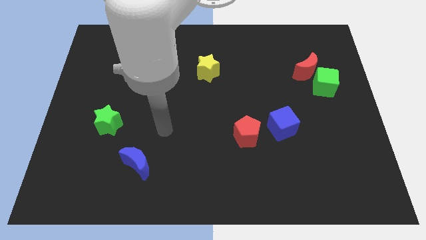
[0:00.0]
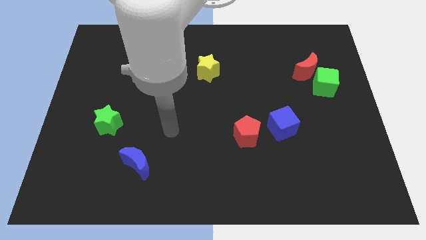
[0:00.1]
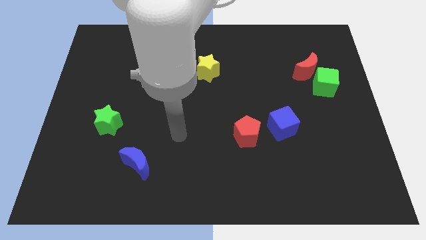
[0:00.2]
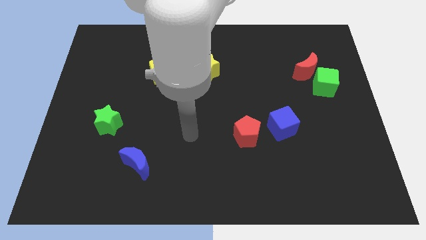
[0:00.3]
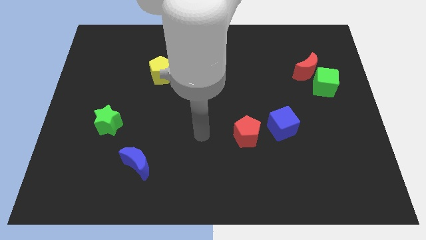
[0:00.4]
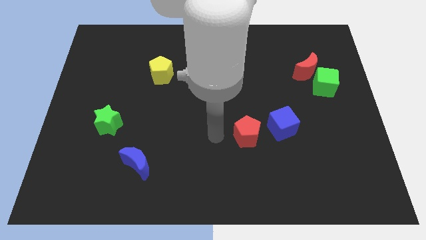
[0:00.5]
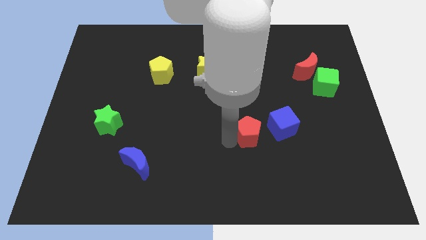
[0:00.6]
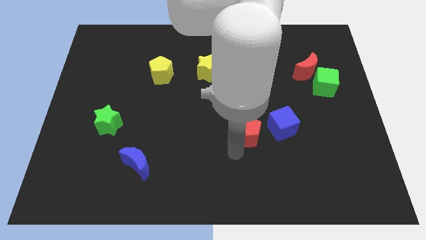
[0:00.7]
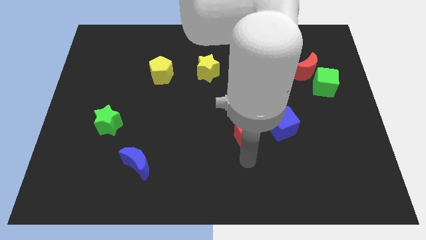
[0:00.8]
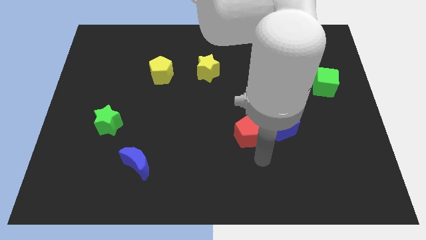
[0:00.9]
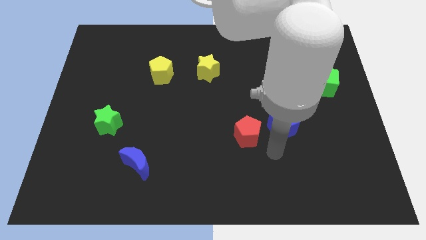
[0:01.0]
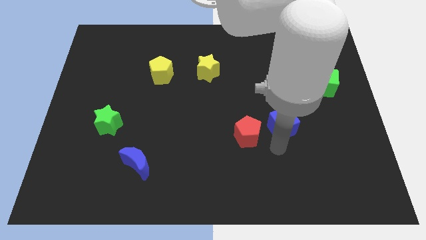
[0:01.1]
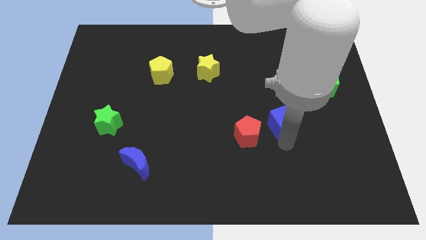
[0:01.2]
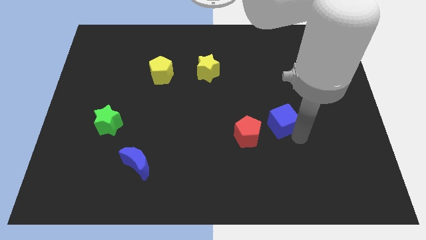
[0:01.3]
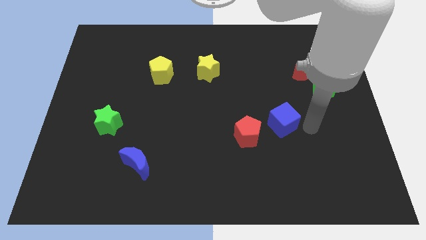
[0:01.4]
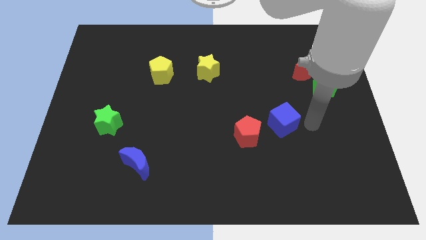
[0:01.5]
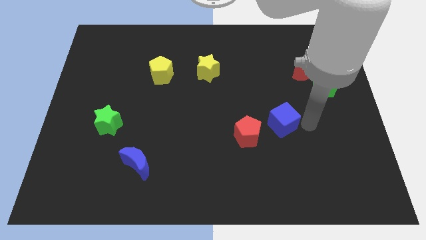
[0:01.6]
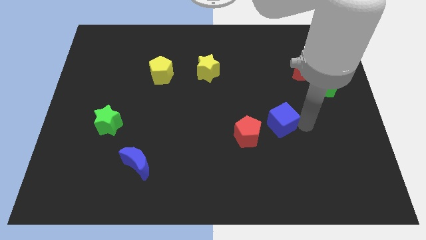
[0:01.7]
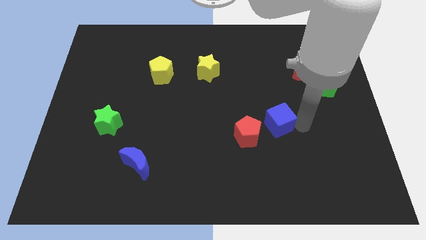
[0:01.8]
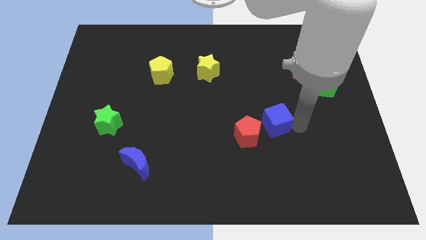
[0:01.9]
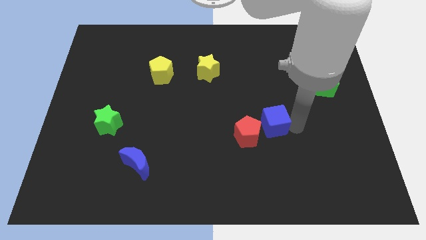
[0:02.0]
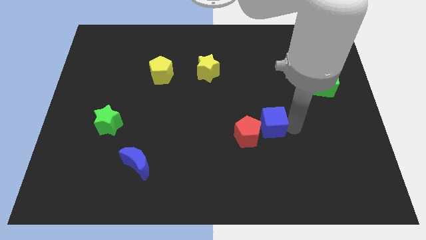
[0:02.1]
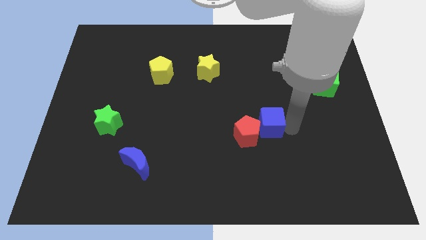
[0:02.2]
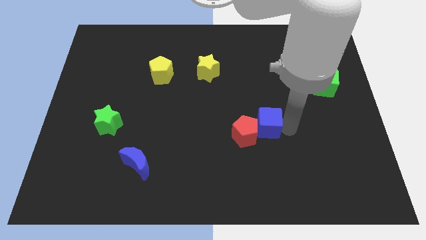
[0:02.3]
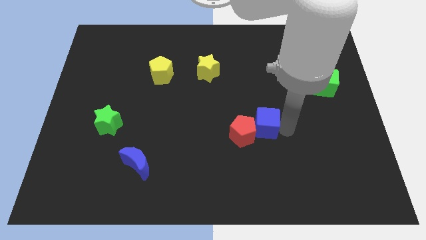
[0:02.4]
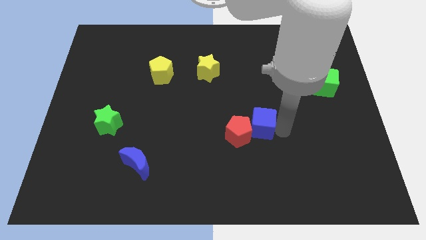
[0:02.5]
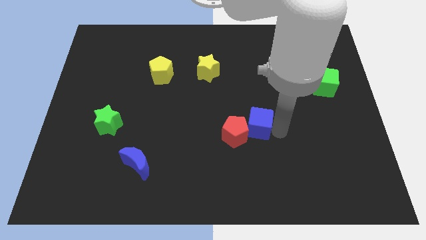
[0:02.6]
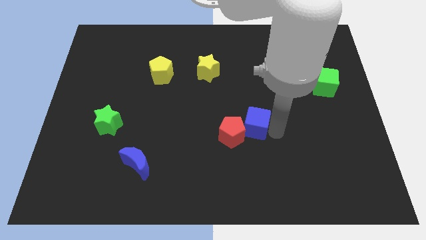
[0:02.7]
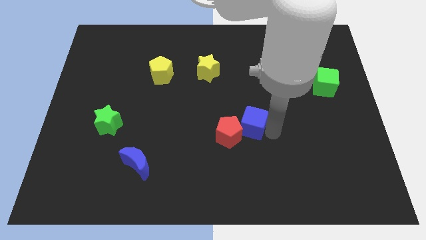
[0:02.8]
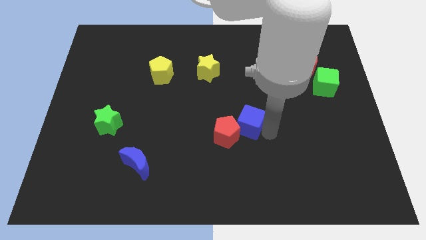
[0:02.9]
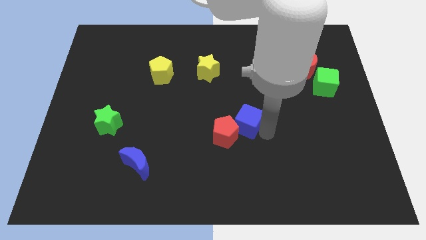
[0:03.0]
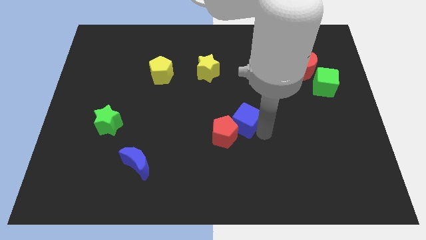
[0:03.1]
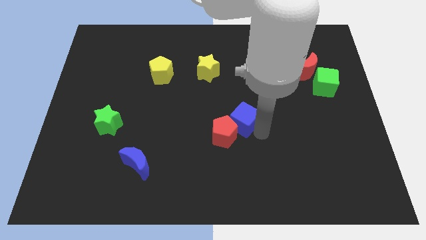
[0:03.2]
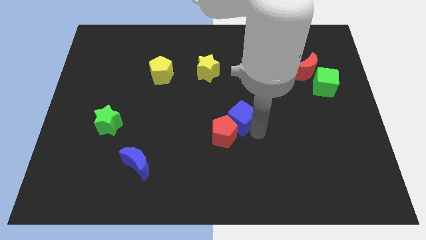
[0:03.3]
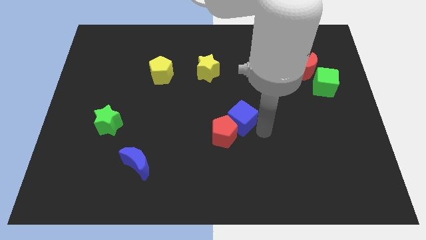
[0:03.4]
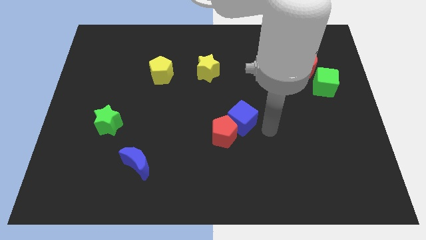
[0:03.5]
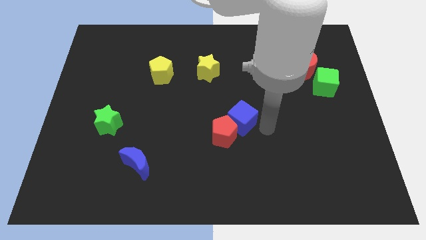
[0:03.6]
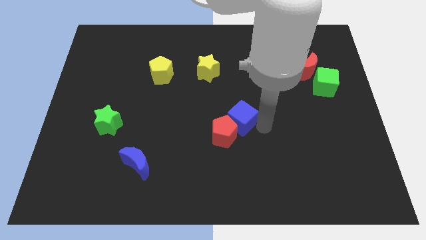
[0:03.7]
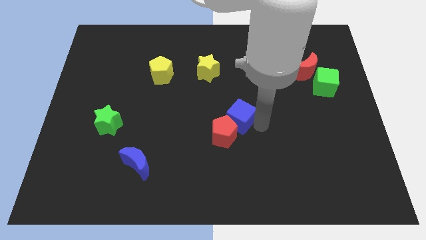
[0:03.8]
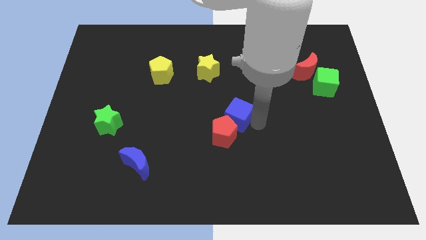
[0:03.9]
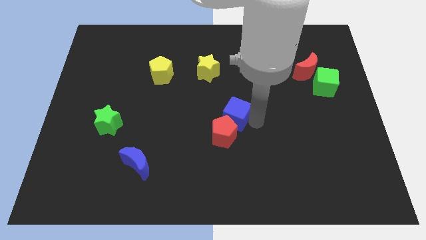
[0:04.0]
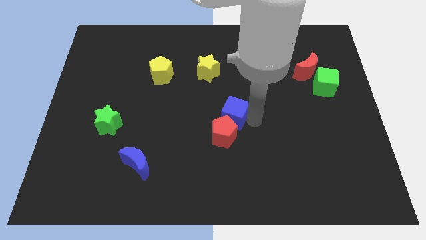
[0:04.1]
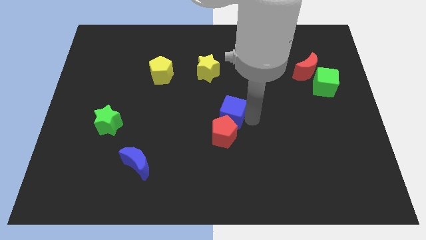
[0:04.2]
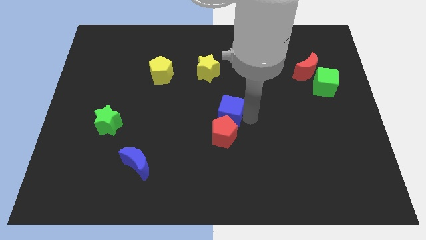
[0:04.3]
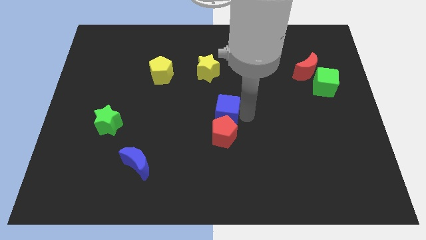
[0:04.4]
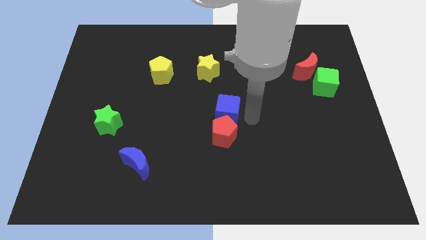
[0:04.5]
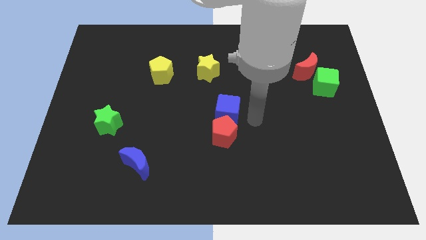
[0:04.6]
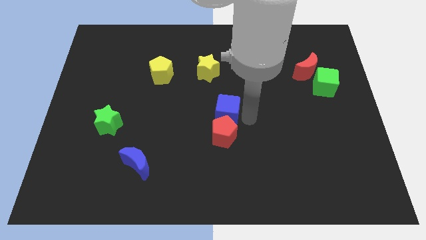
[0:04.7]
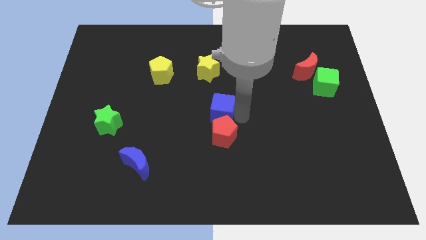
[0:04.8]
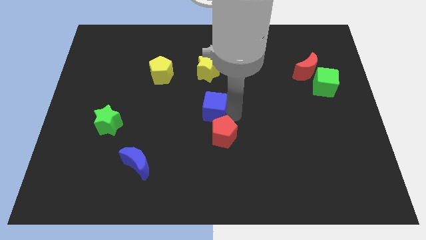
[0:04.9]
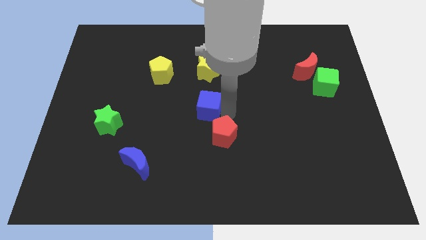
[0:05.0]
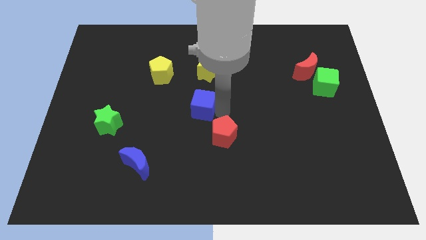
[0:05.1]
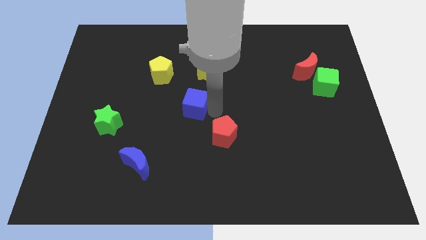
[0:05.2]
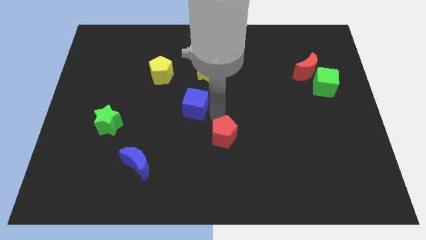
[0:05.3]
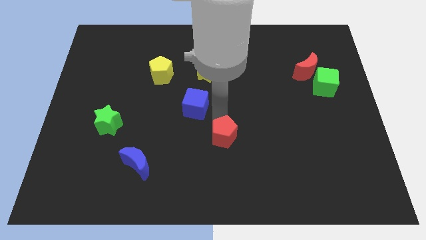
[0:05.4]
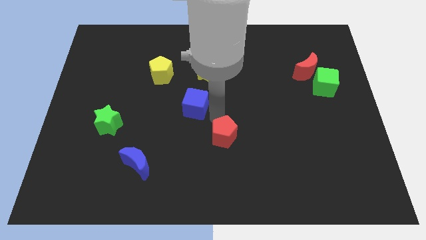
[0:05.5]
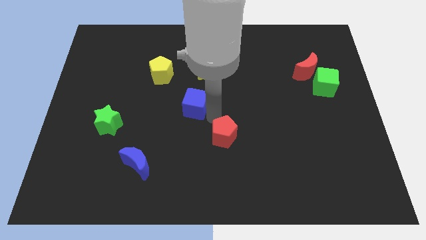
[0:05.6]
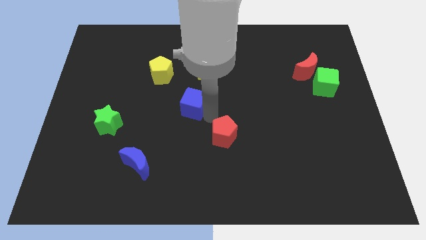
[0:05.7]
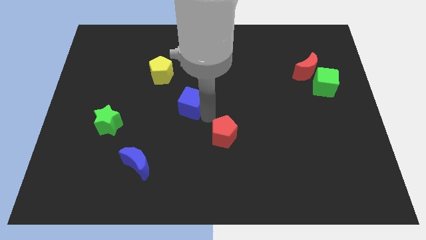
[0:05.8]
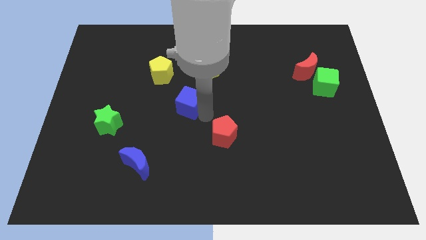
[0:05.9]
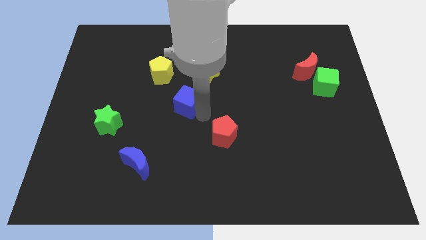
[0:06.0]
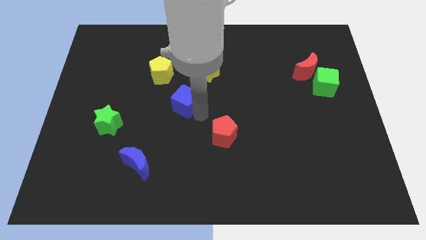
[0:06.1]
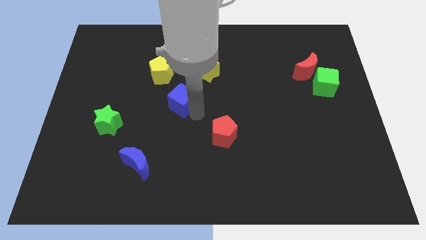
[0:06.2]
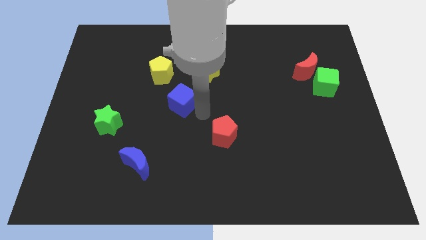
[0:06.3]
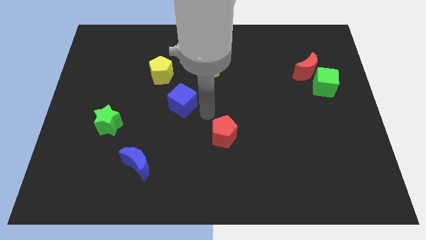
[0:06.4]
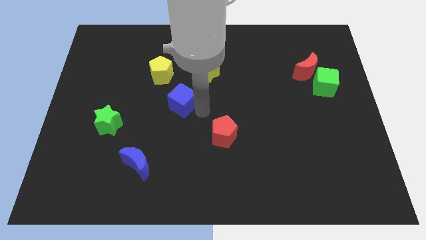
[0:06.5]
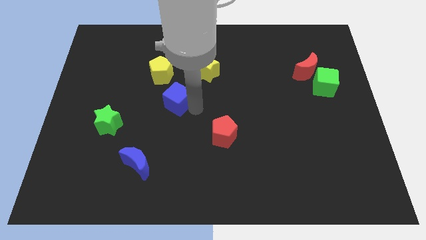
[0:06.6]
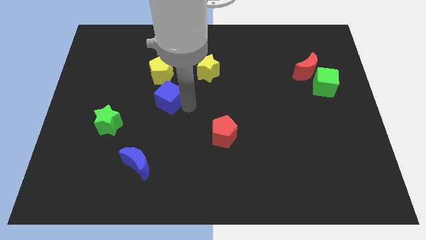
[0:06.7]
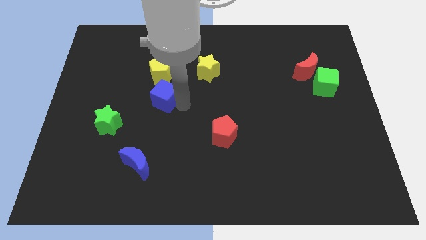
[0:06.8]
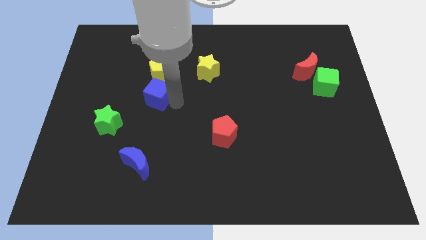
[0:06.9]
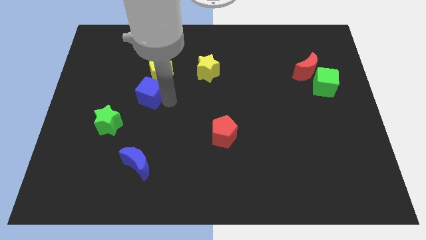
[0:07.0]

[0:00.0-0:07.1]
slide the blue cube to the bottom left of the yellow pentagon
